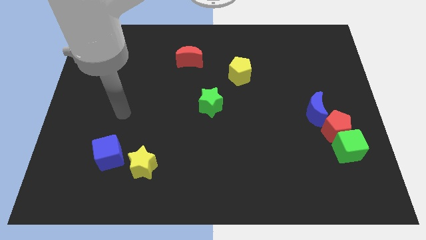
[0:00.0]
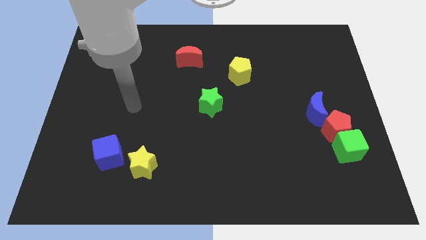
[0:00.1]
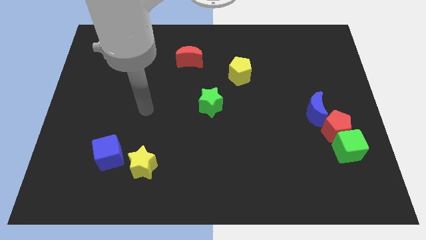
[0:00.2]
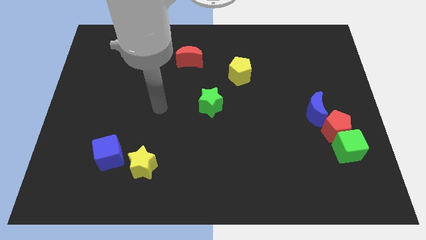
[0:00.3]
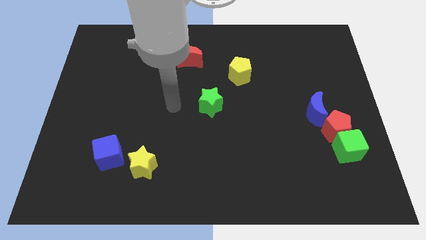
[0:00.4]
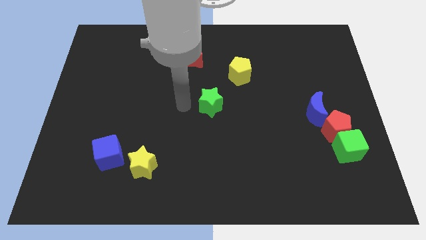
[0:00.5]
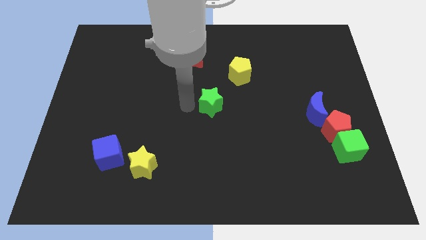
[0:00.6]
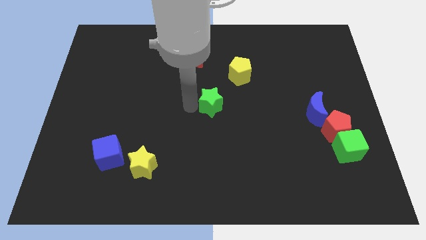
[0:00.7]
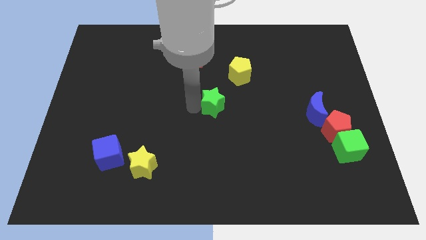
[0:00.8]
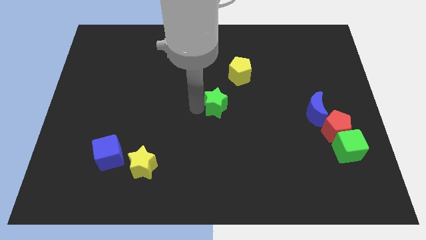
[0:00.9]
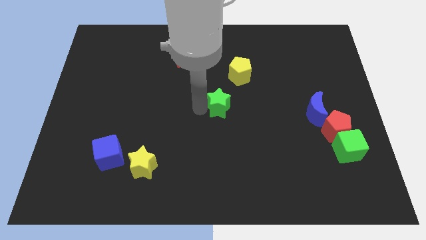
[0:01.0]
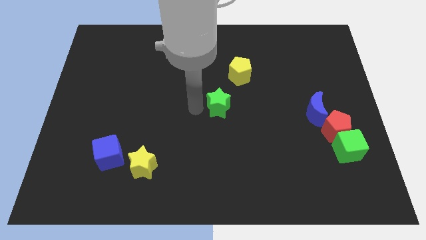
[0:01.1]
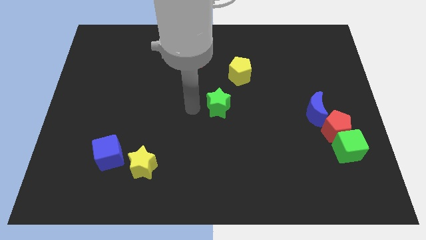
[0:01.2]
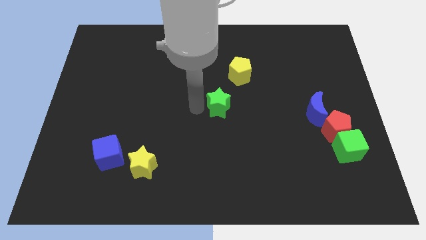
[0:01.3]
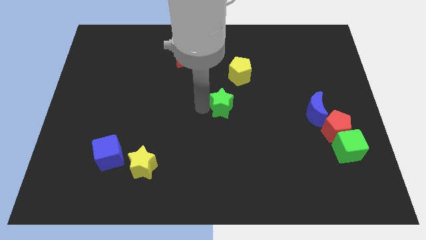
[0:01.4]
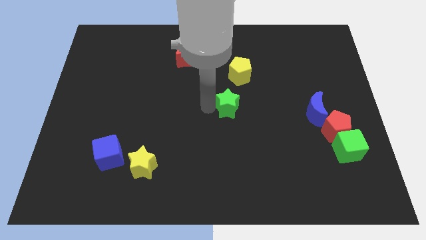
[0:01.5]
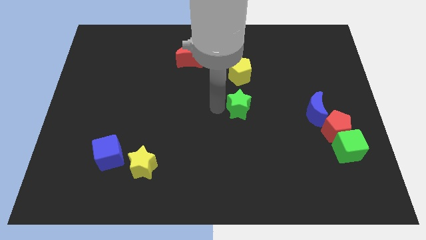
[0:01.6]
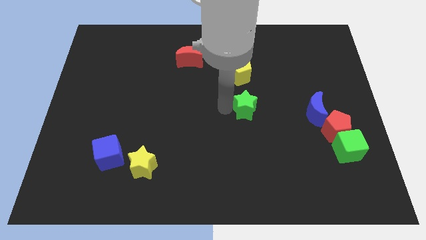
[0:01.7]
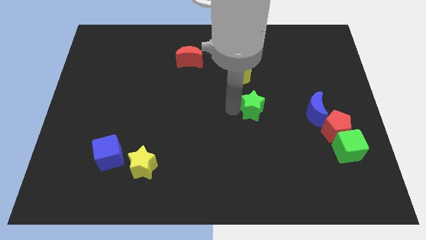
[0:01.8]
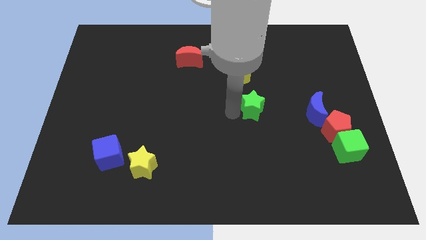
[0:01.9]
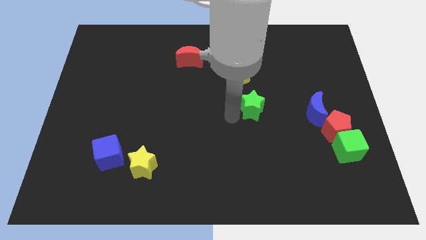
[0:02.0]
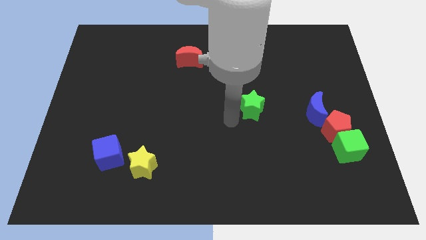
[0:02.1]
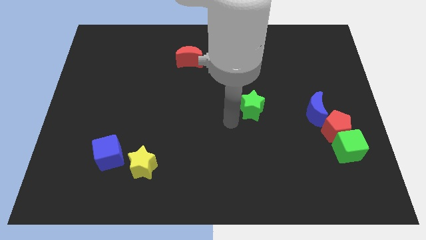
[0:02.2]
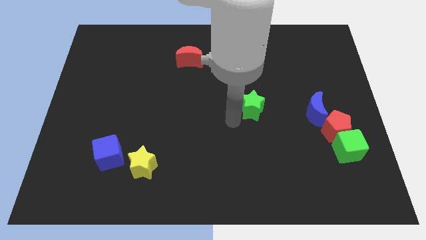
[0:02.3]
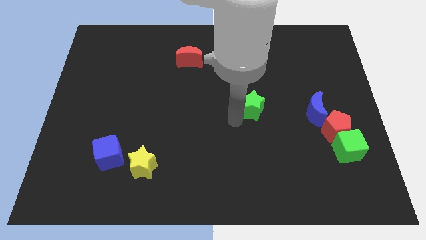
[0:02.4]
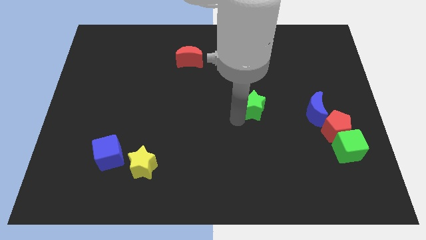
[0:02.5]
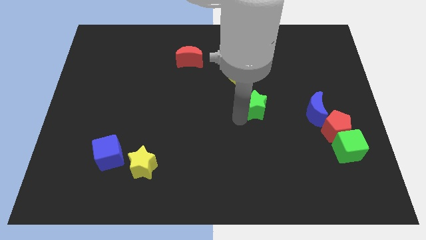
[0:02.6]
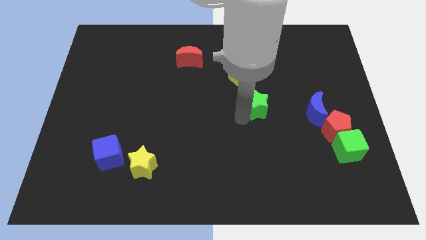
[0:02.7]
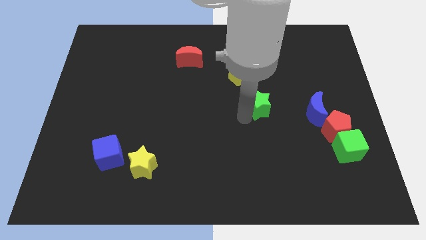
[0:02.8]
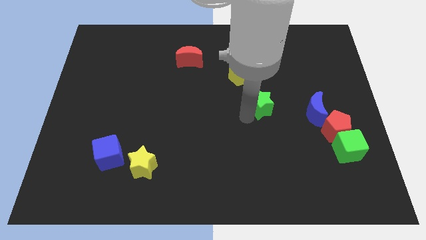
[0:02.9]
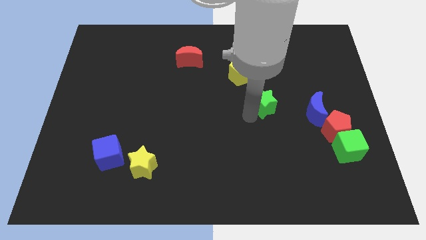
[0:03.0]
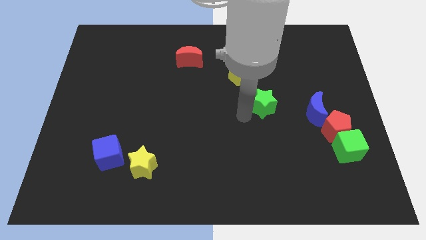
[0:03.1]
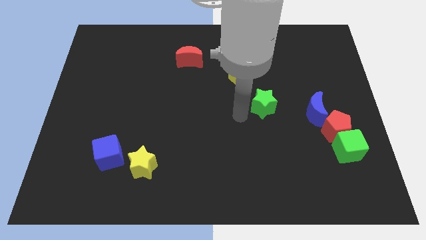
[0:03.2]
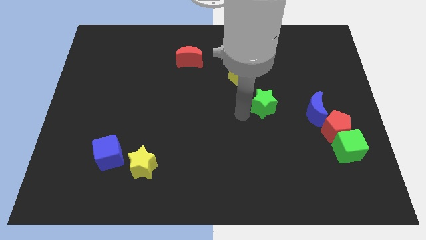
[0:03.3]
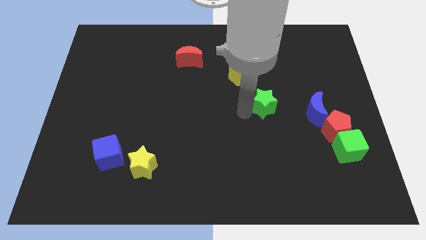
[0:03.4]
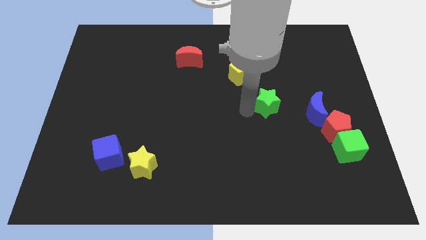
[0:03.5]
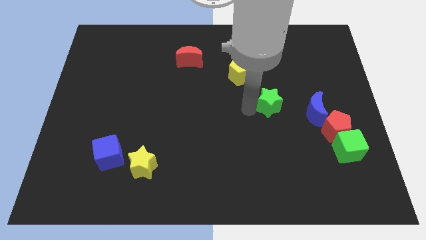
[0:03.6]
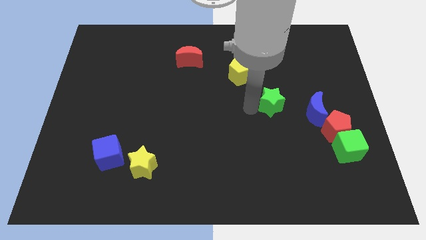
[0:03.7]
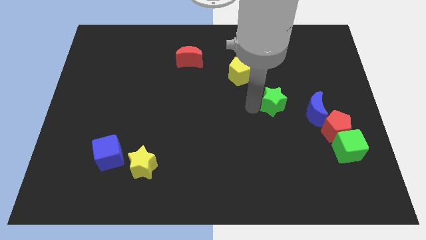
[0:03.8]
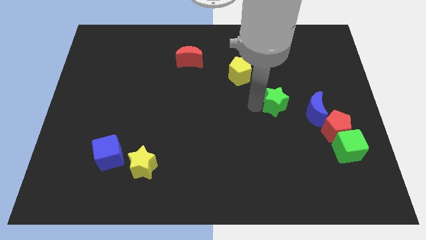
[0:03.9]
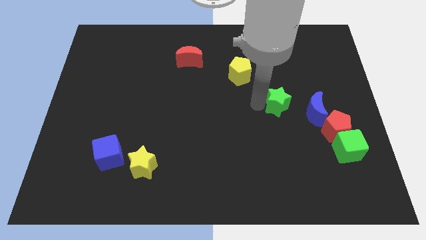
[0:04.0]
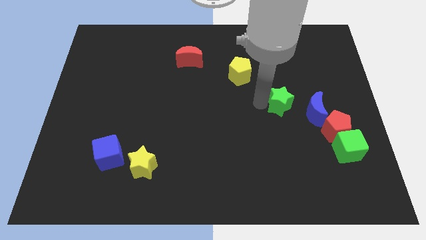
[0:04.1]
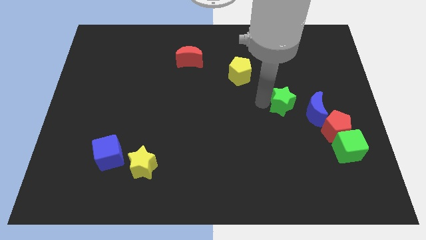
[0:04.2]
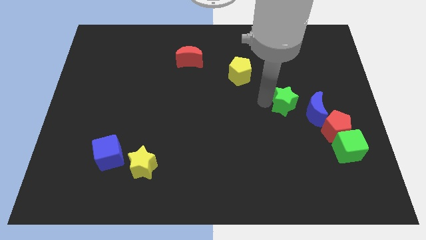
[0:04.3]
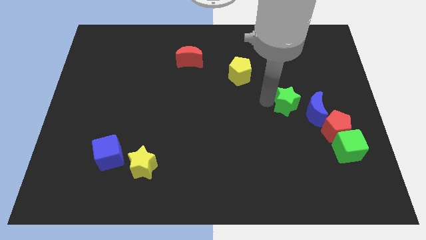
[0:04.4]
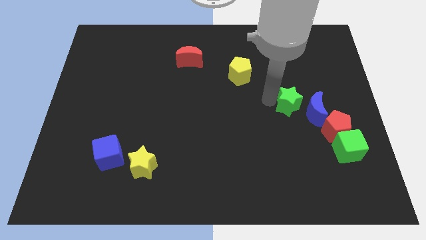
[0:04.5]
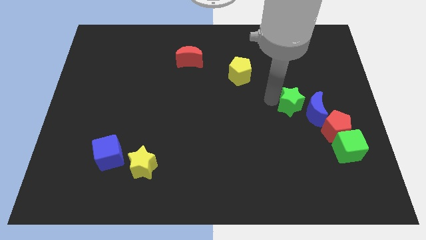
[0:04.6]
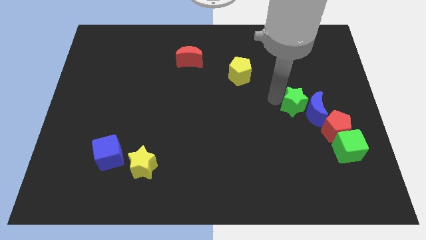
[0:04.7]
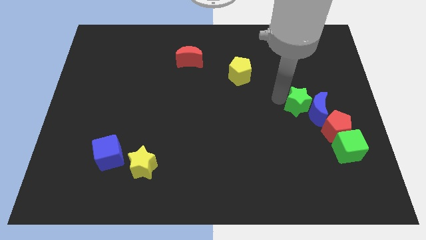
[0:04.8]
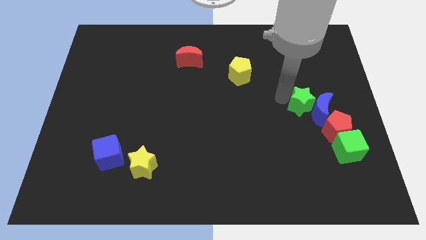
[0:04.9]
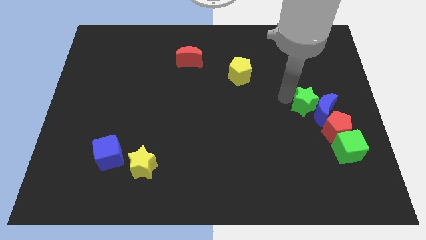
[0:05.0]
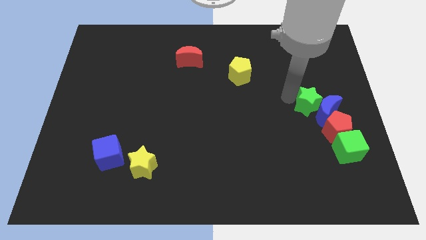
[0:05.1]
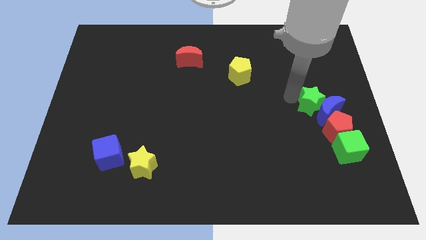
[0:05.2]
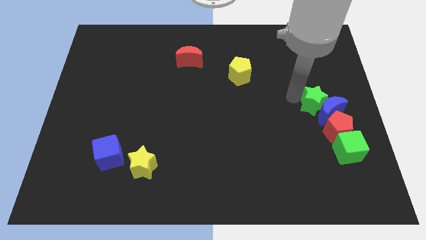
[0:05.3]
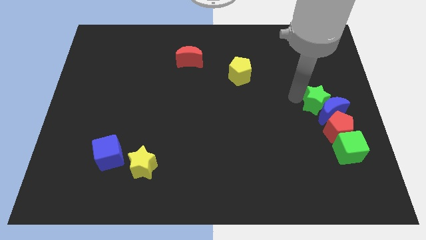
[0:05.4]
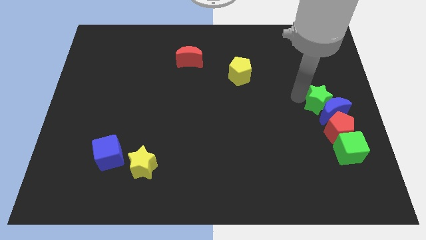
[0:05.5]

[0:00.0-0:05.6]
slide the green star above the green cube
